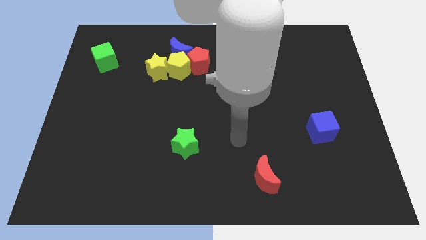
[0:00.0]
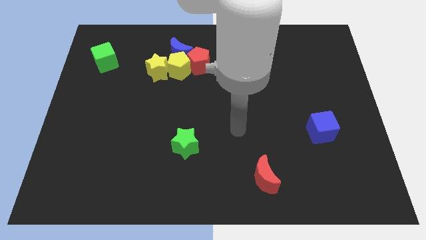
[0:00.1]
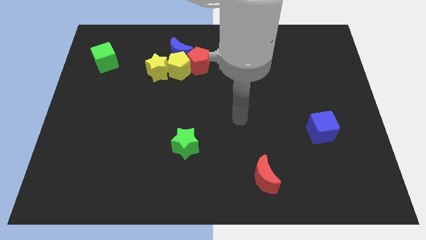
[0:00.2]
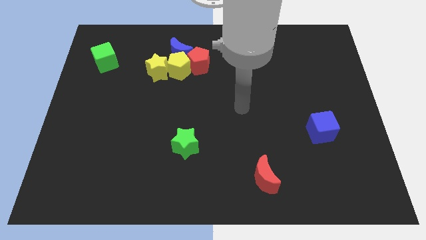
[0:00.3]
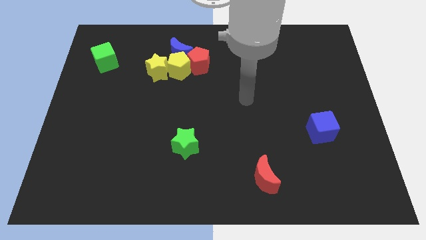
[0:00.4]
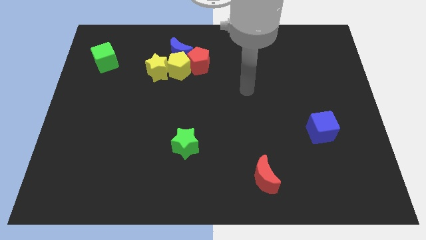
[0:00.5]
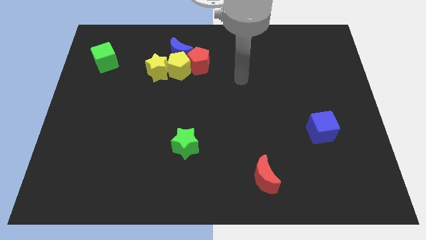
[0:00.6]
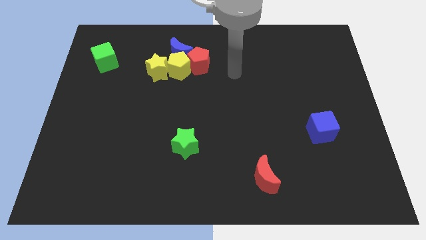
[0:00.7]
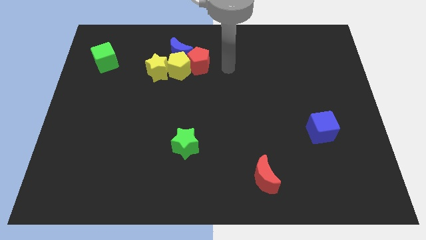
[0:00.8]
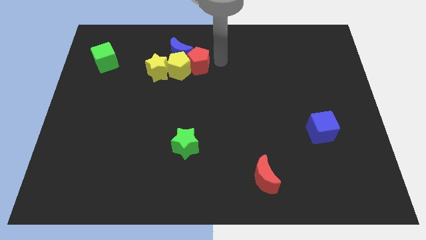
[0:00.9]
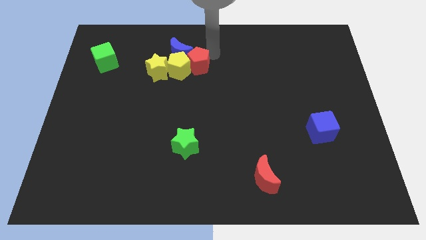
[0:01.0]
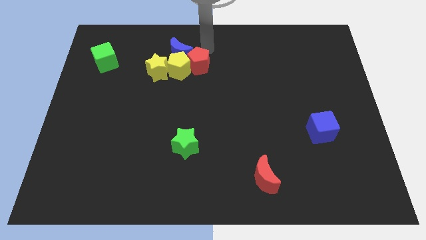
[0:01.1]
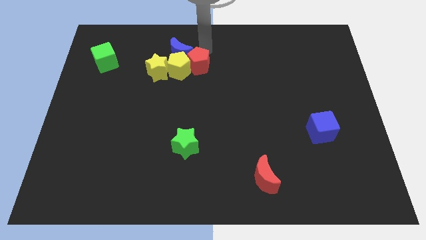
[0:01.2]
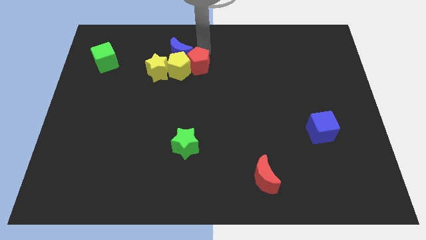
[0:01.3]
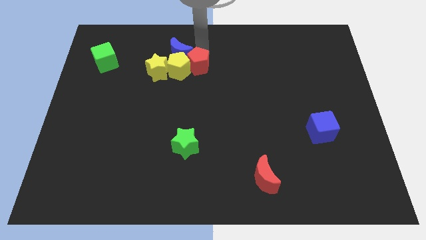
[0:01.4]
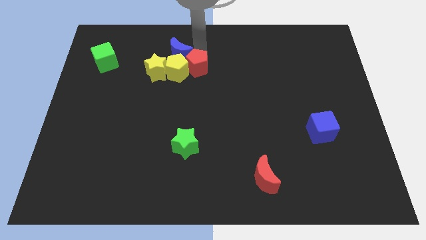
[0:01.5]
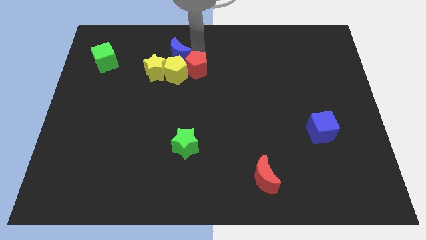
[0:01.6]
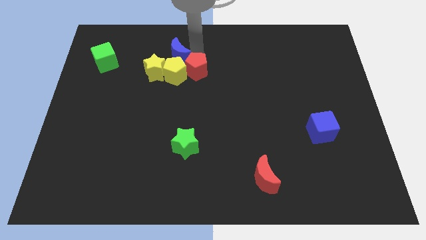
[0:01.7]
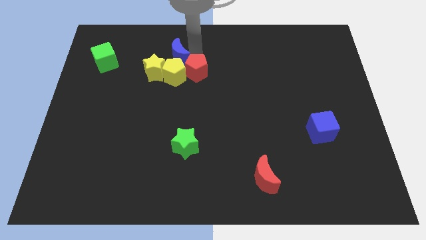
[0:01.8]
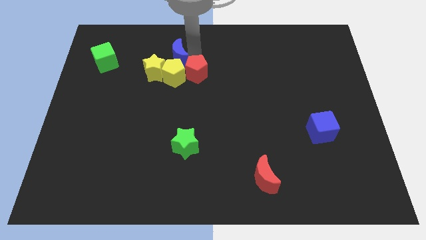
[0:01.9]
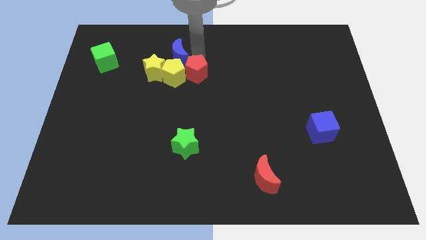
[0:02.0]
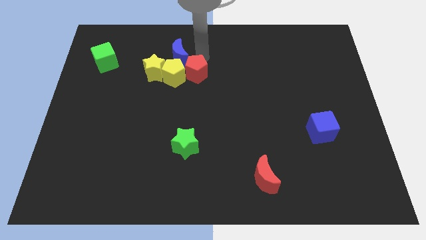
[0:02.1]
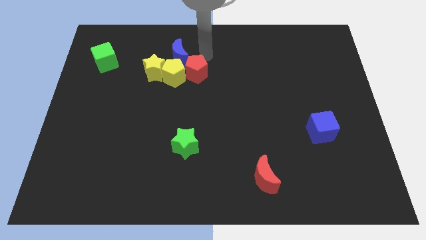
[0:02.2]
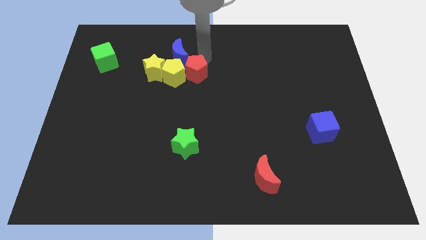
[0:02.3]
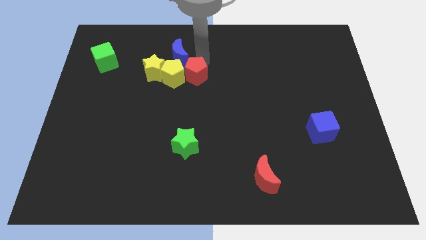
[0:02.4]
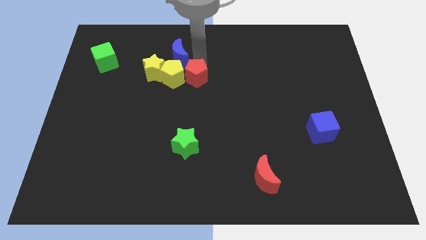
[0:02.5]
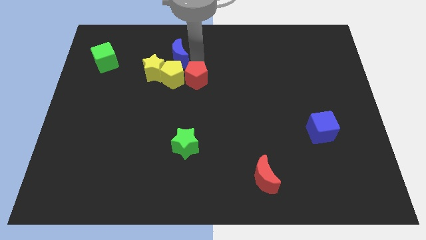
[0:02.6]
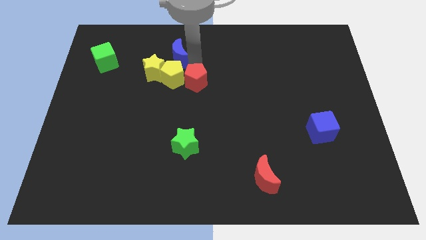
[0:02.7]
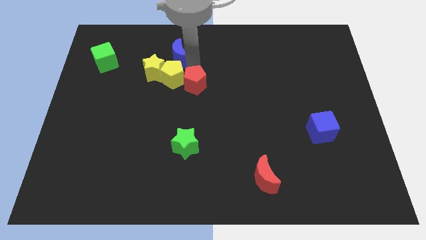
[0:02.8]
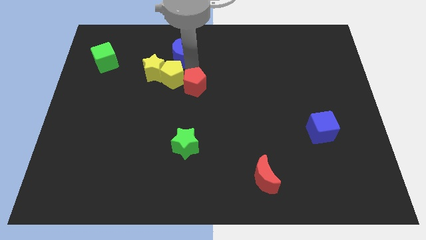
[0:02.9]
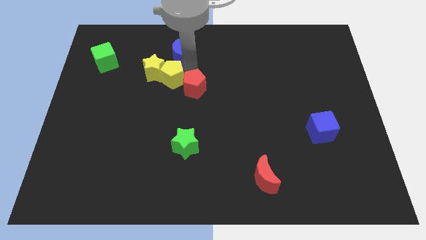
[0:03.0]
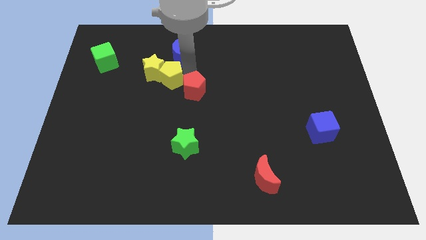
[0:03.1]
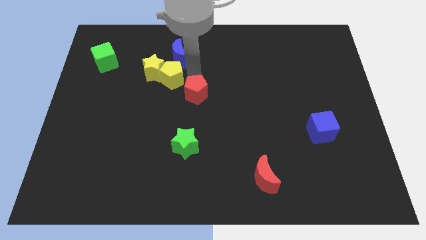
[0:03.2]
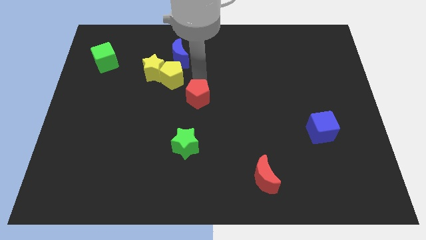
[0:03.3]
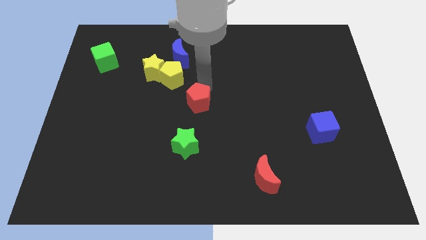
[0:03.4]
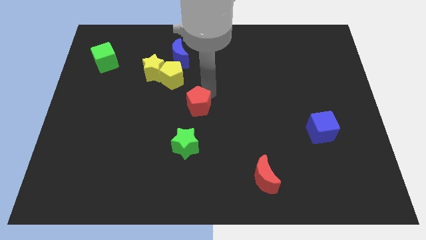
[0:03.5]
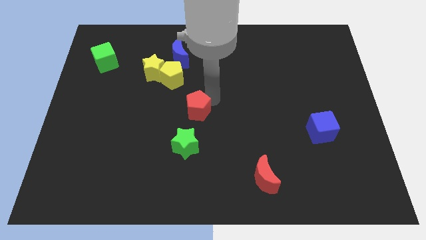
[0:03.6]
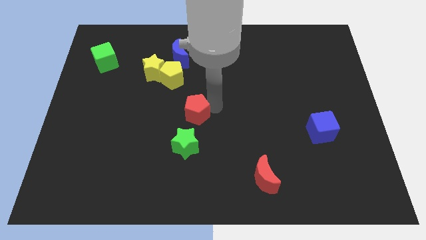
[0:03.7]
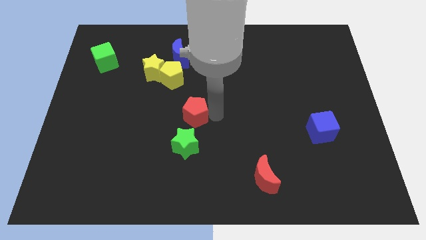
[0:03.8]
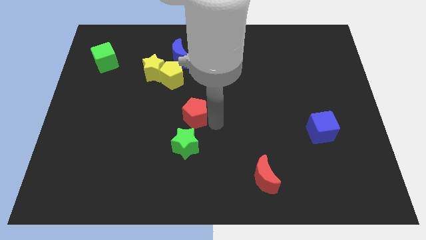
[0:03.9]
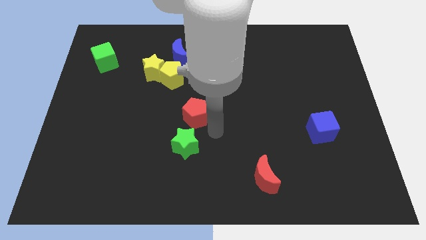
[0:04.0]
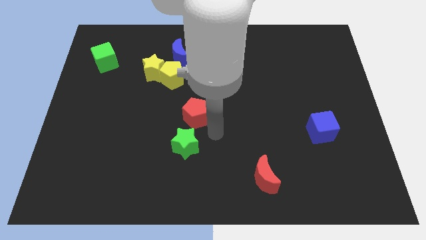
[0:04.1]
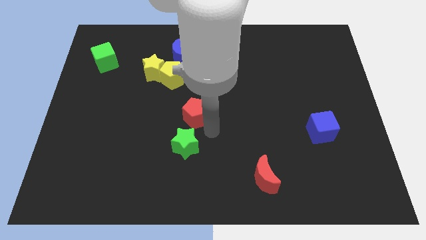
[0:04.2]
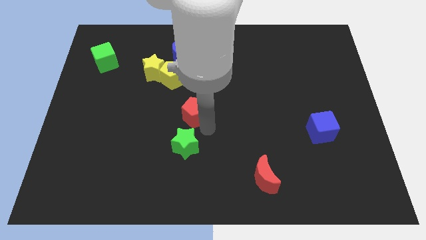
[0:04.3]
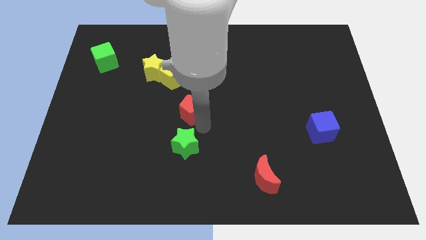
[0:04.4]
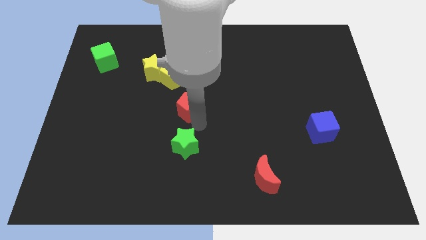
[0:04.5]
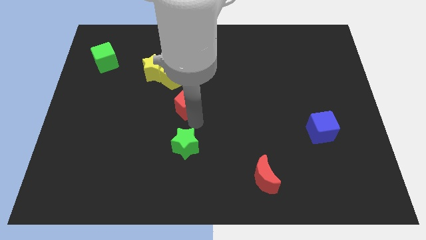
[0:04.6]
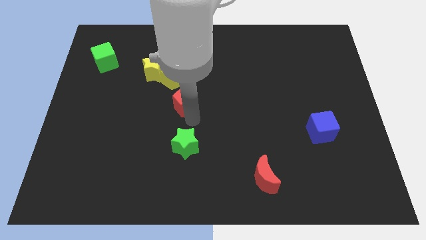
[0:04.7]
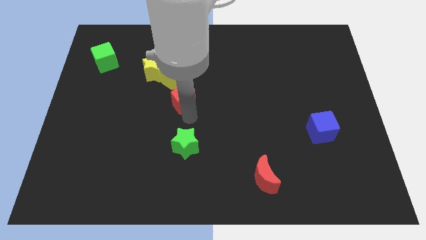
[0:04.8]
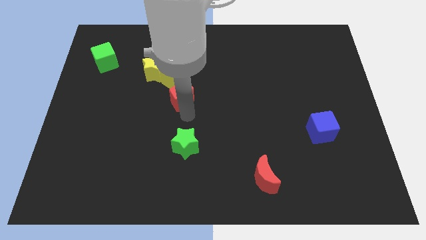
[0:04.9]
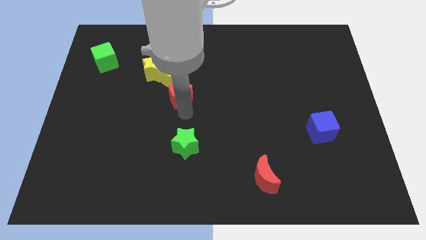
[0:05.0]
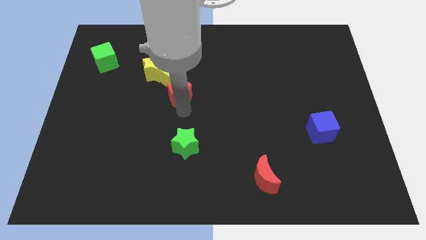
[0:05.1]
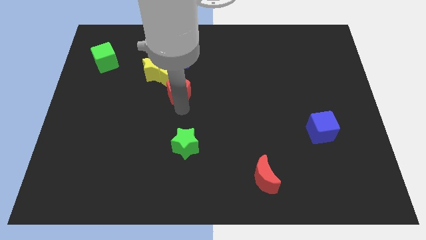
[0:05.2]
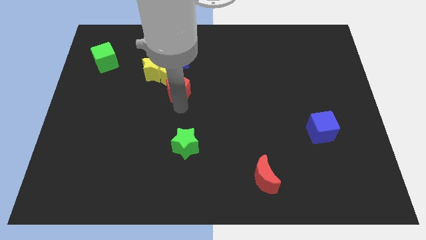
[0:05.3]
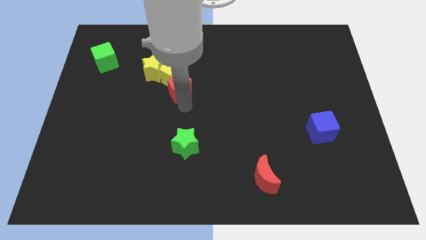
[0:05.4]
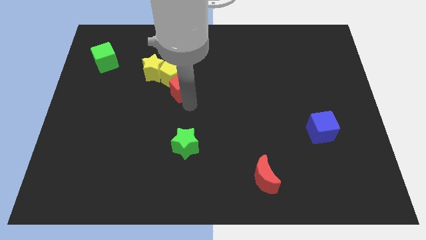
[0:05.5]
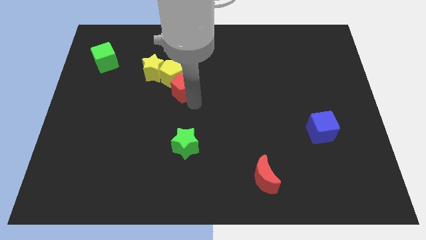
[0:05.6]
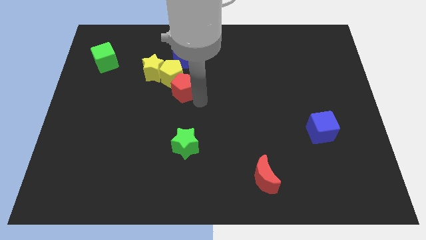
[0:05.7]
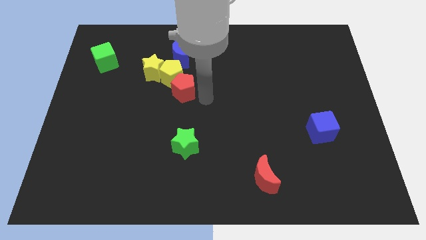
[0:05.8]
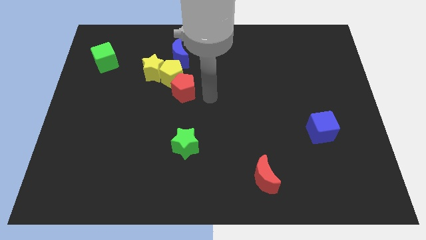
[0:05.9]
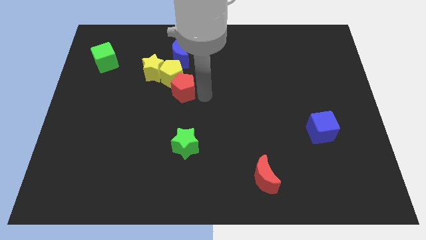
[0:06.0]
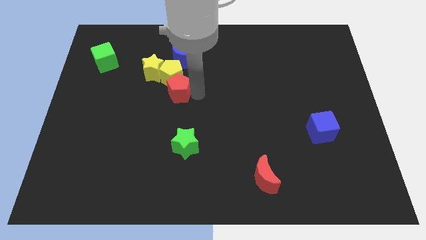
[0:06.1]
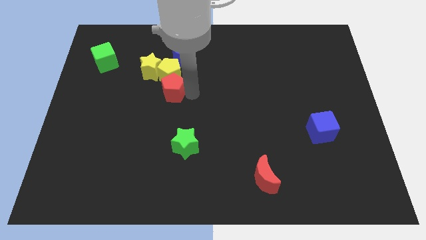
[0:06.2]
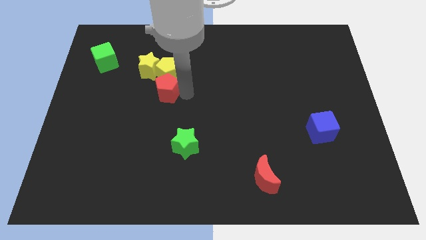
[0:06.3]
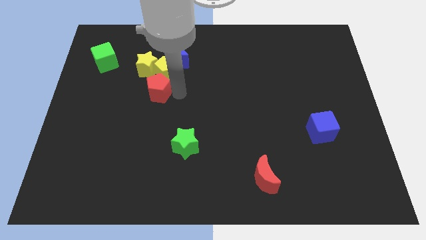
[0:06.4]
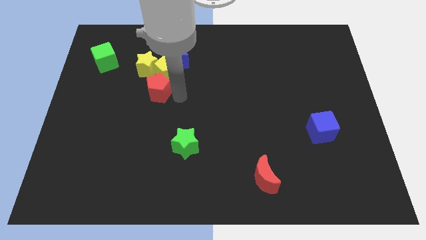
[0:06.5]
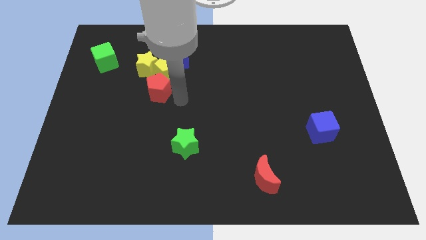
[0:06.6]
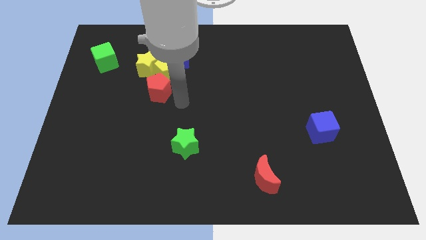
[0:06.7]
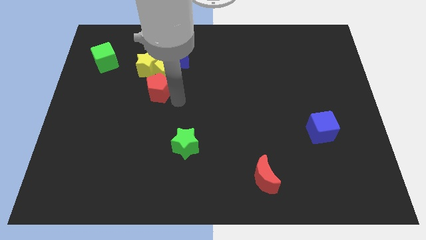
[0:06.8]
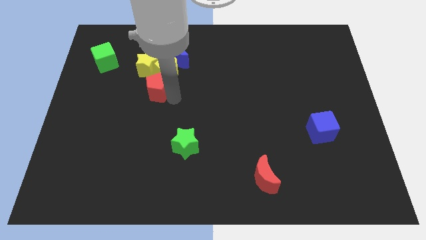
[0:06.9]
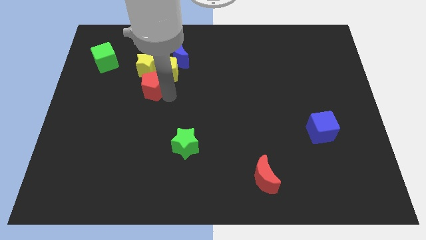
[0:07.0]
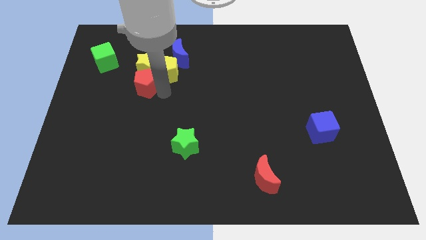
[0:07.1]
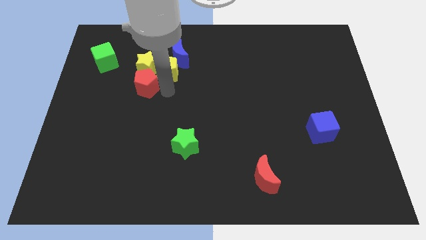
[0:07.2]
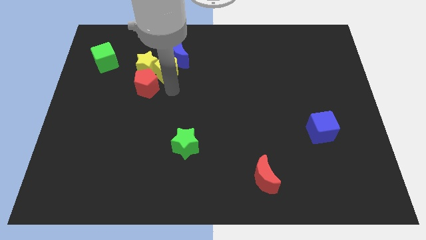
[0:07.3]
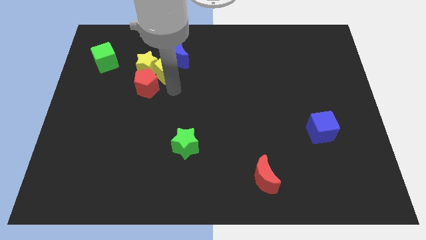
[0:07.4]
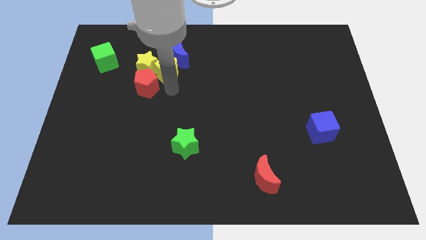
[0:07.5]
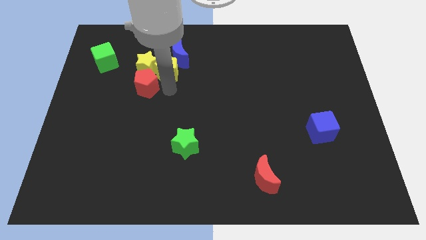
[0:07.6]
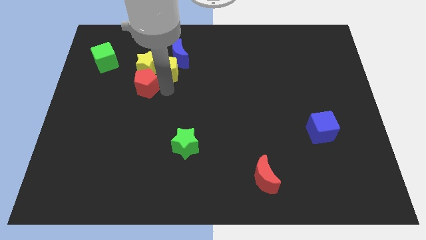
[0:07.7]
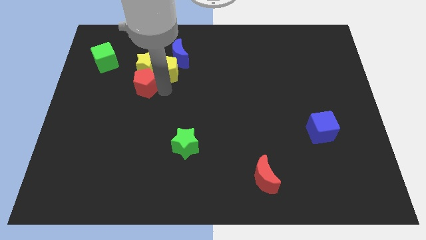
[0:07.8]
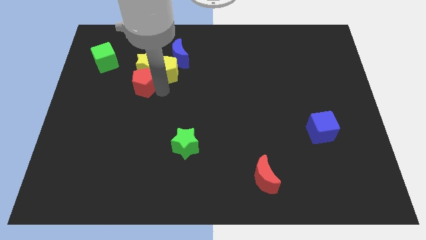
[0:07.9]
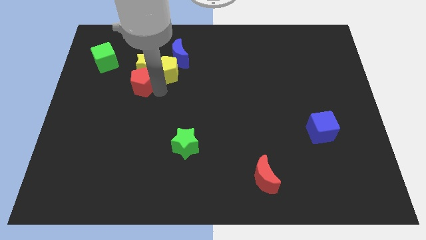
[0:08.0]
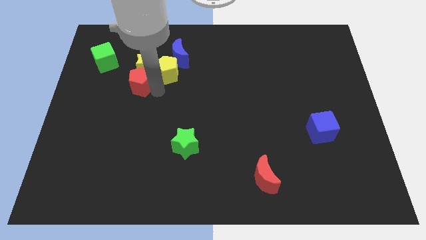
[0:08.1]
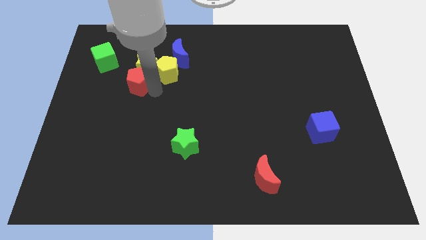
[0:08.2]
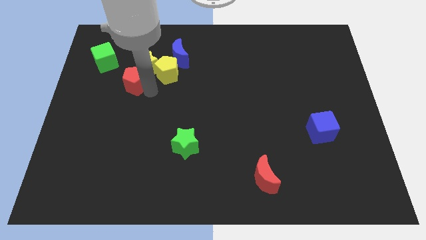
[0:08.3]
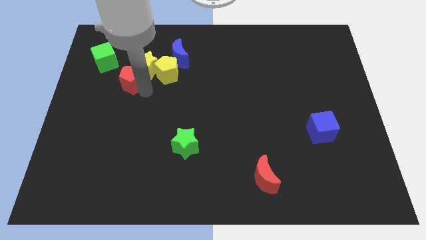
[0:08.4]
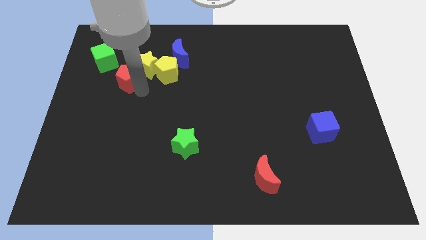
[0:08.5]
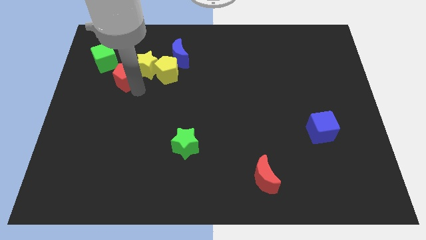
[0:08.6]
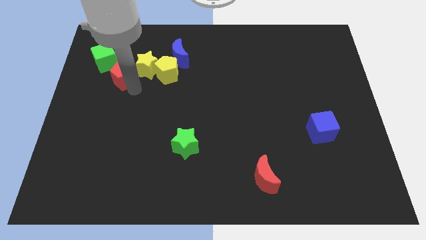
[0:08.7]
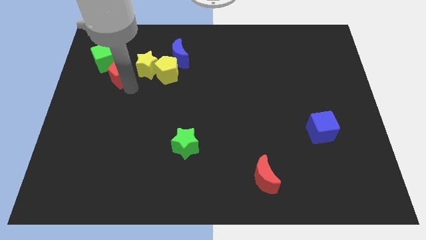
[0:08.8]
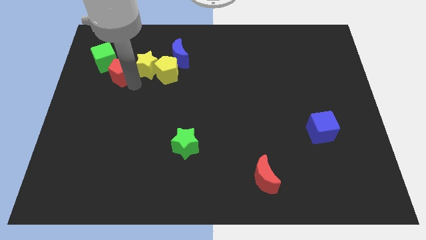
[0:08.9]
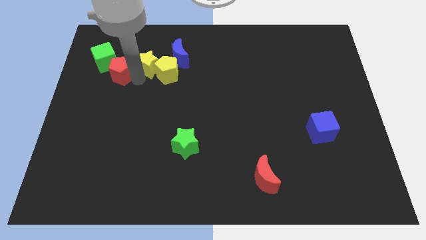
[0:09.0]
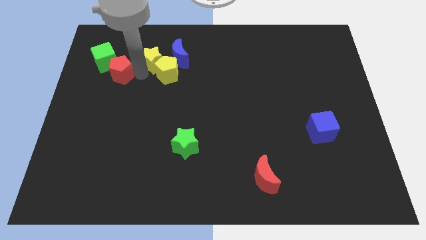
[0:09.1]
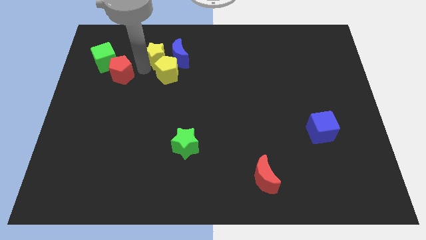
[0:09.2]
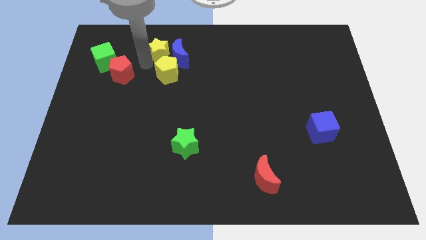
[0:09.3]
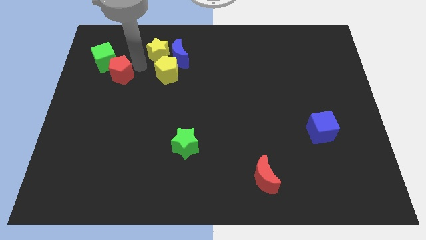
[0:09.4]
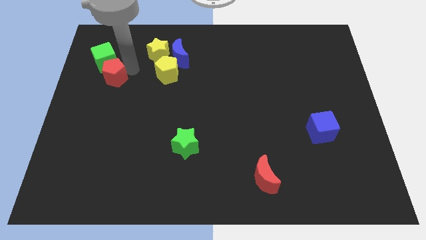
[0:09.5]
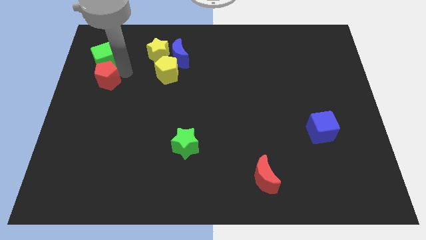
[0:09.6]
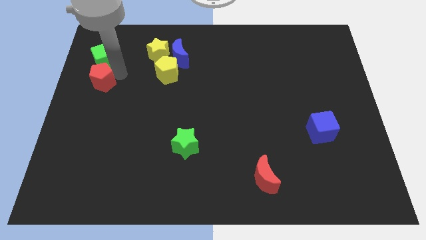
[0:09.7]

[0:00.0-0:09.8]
put the red pentagon to the left side of the board
